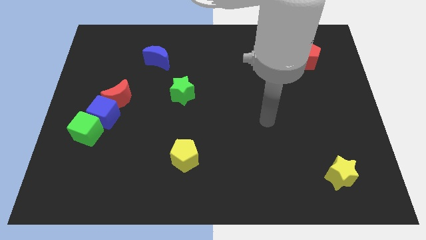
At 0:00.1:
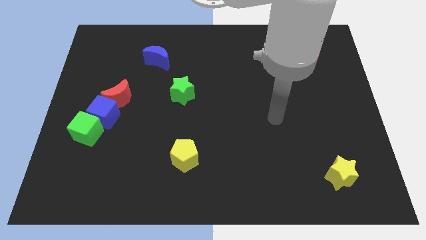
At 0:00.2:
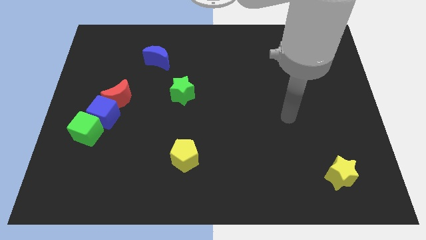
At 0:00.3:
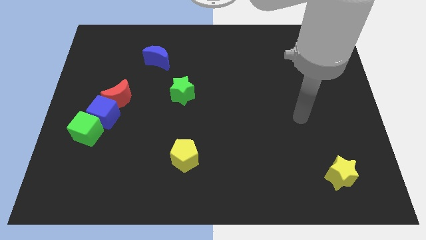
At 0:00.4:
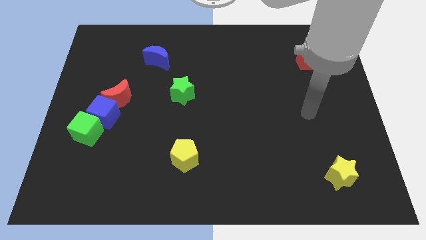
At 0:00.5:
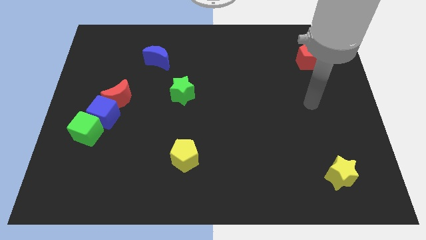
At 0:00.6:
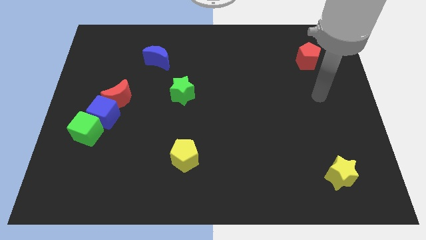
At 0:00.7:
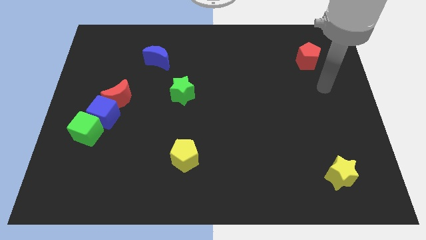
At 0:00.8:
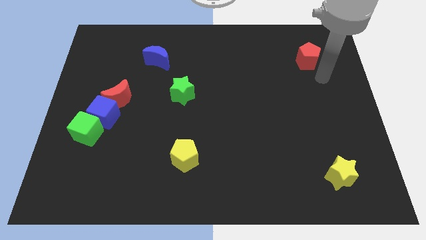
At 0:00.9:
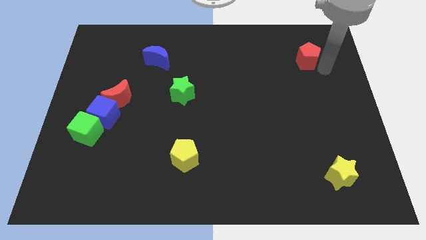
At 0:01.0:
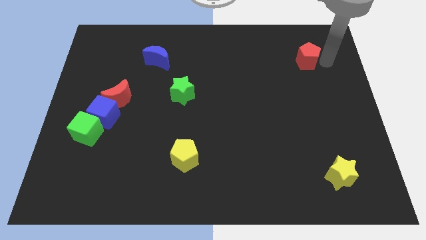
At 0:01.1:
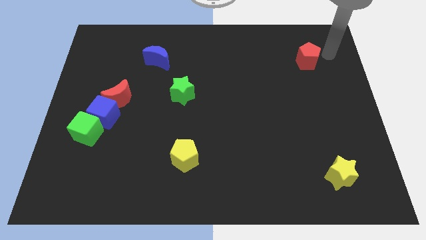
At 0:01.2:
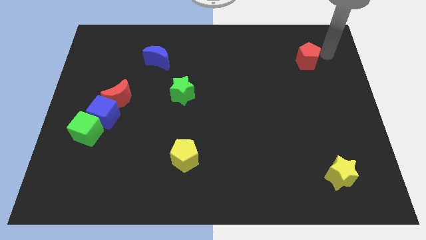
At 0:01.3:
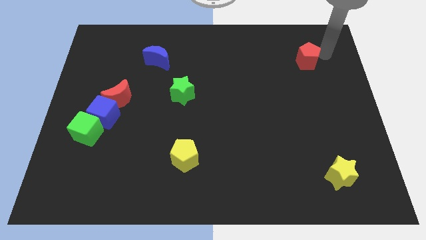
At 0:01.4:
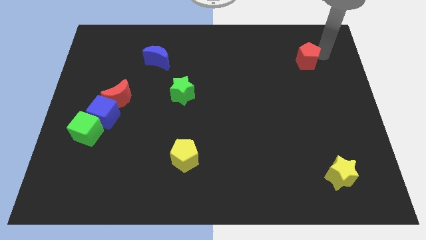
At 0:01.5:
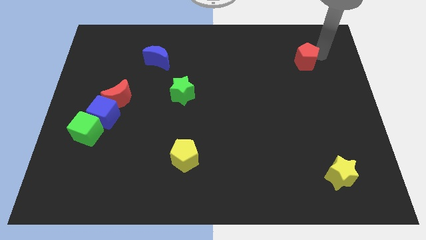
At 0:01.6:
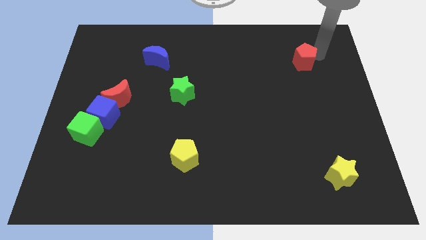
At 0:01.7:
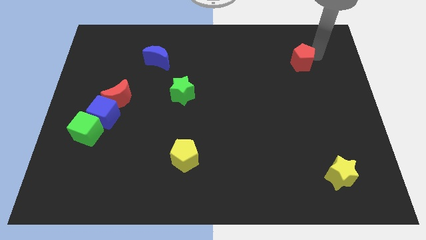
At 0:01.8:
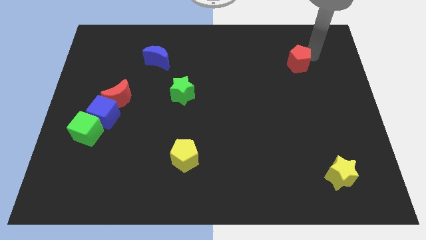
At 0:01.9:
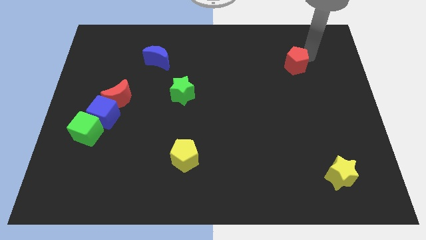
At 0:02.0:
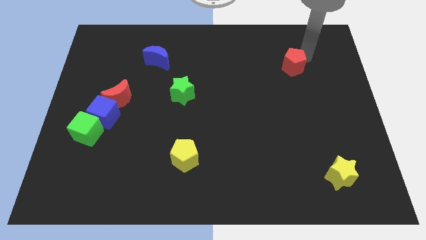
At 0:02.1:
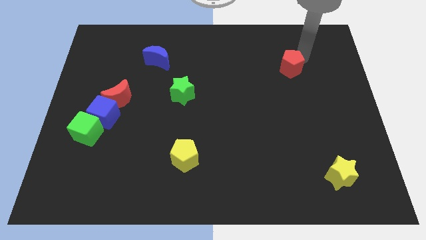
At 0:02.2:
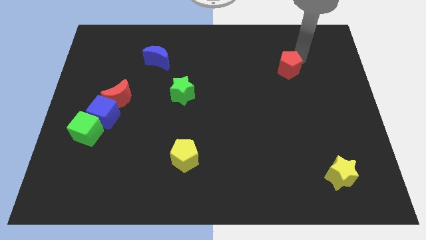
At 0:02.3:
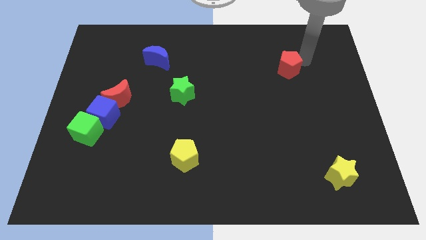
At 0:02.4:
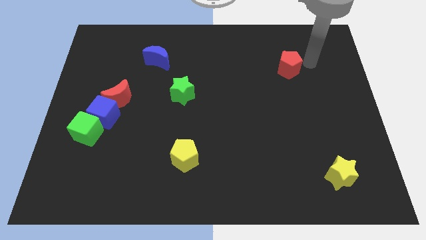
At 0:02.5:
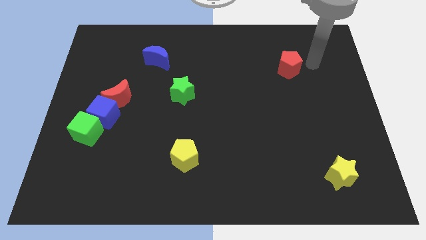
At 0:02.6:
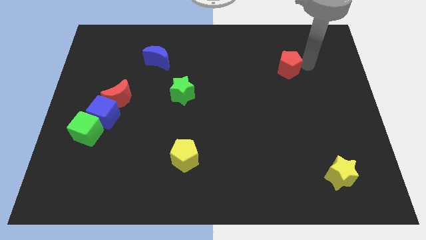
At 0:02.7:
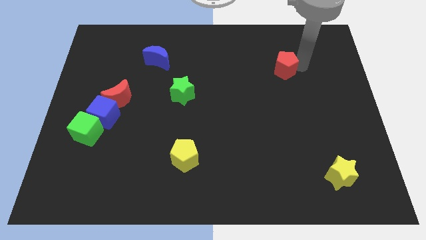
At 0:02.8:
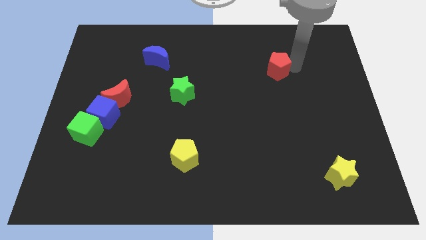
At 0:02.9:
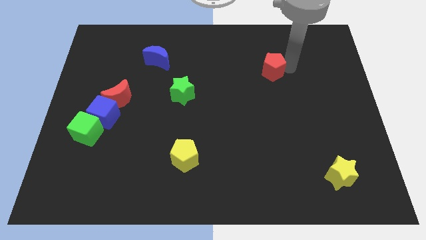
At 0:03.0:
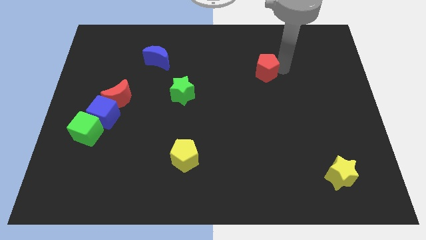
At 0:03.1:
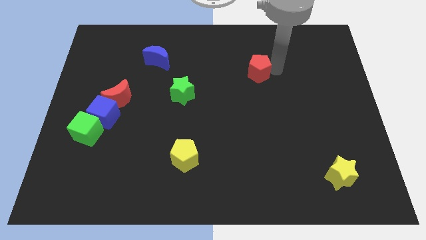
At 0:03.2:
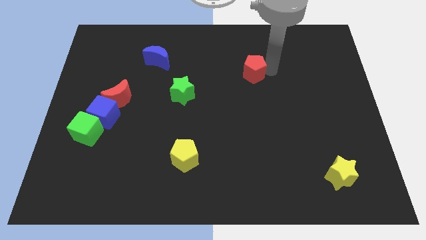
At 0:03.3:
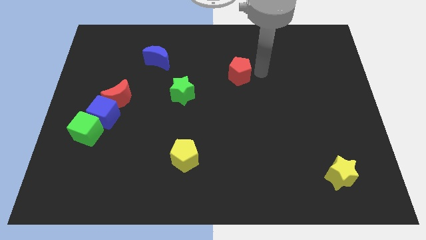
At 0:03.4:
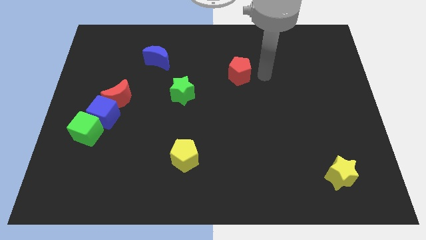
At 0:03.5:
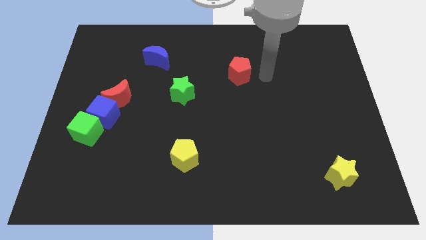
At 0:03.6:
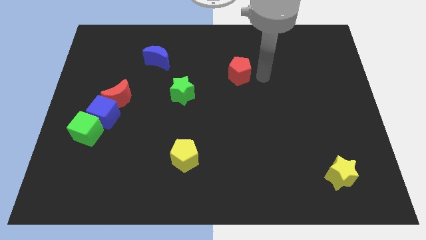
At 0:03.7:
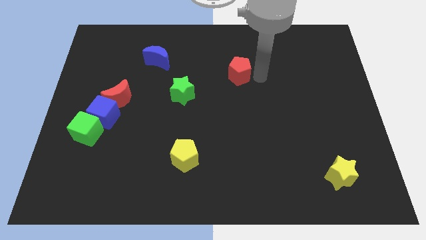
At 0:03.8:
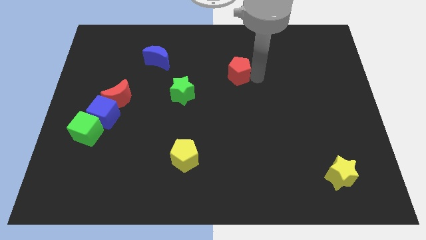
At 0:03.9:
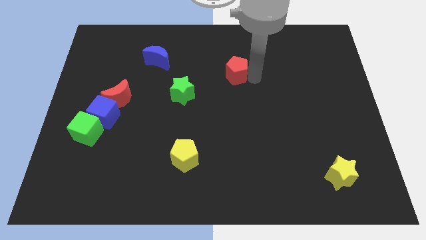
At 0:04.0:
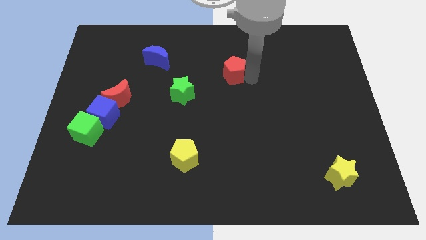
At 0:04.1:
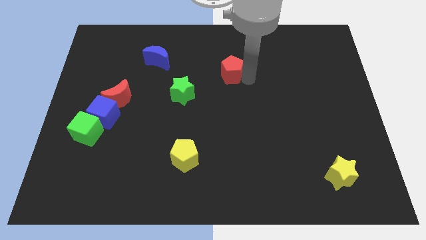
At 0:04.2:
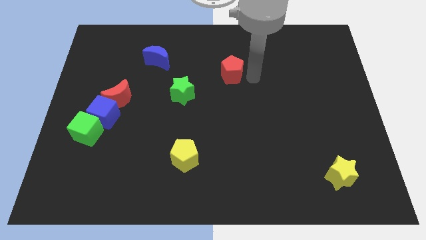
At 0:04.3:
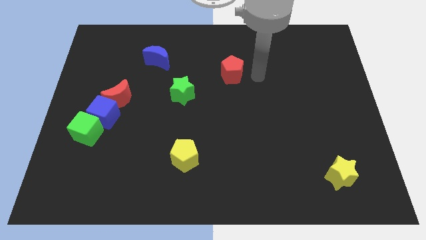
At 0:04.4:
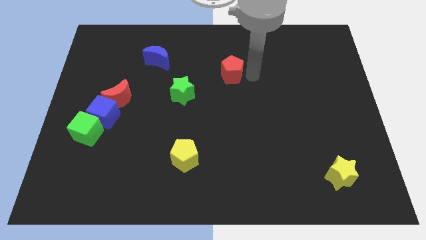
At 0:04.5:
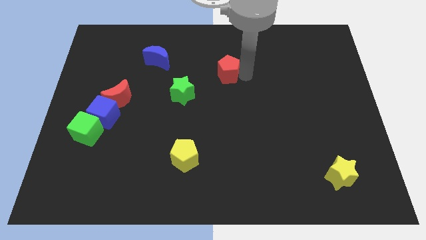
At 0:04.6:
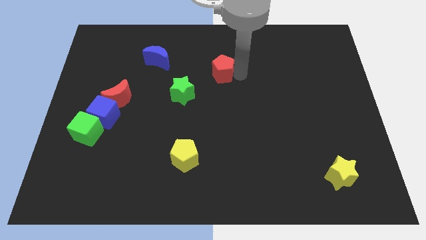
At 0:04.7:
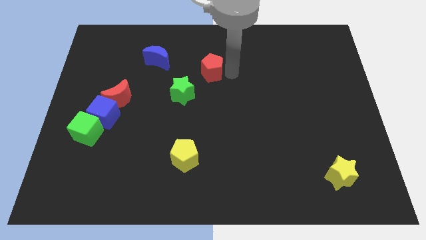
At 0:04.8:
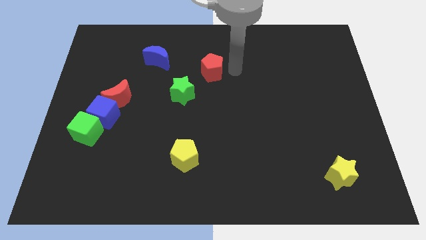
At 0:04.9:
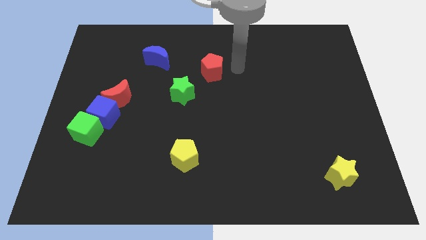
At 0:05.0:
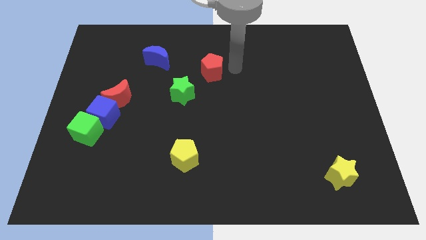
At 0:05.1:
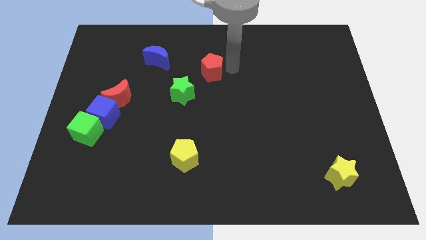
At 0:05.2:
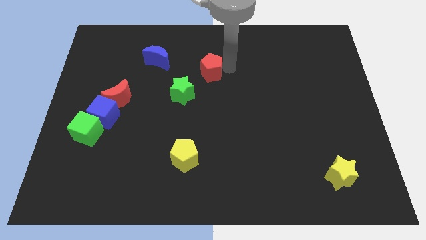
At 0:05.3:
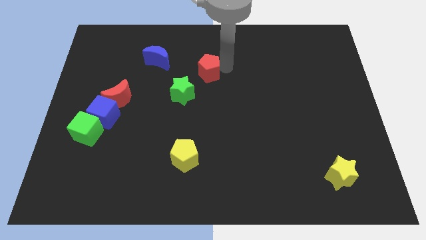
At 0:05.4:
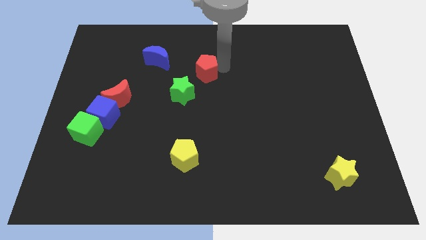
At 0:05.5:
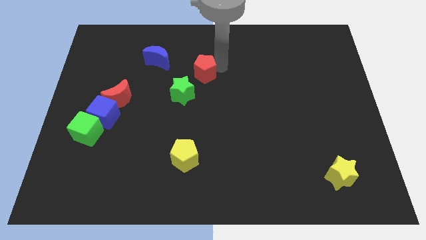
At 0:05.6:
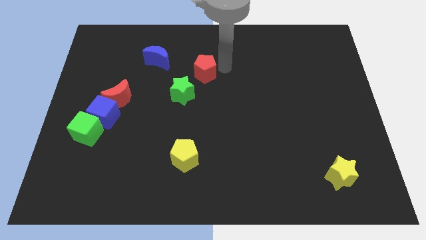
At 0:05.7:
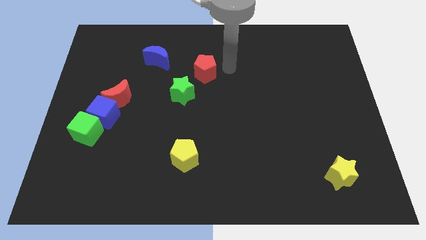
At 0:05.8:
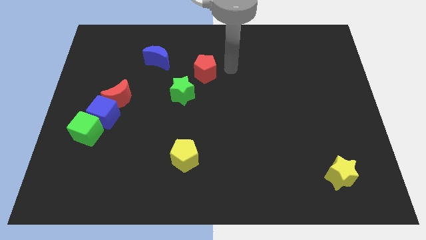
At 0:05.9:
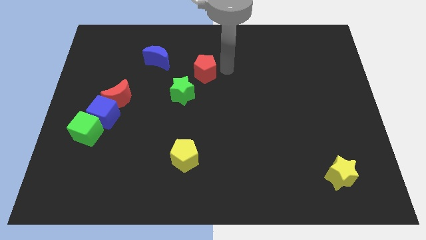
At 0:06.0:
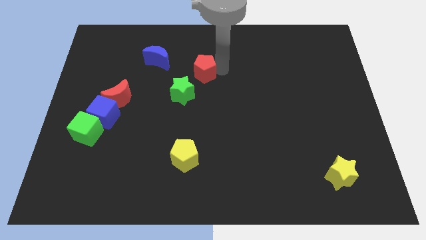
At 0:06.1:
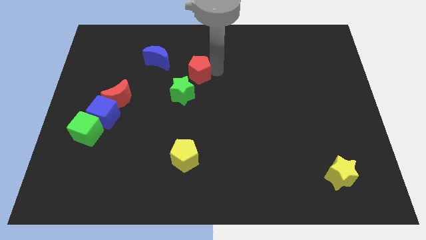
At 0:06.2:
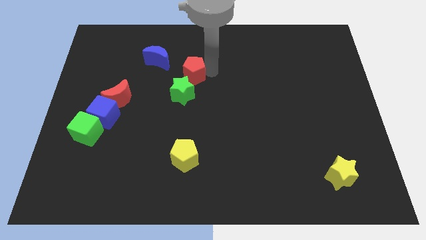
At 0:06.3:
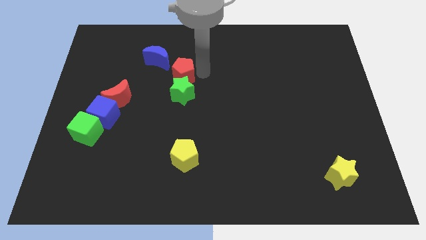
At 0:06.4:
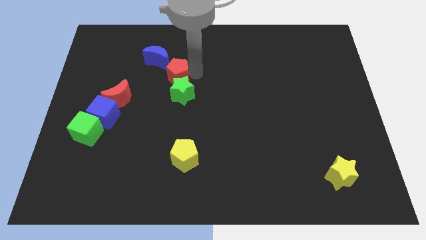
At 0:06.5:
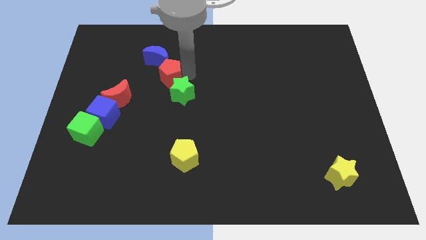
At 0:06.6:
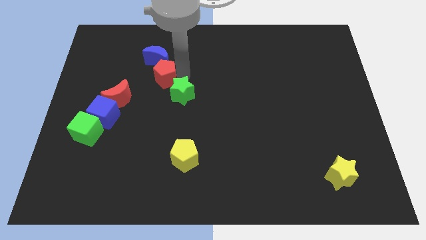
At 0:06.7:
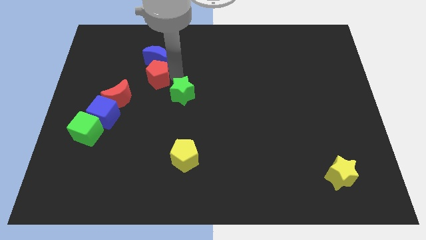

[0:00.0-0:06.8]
slide the red pentagon diagonally up and to the right of the red moon

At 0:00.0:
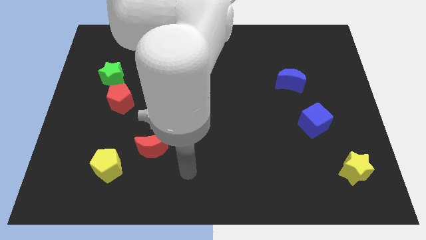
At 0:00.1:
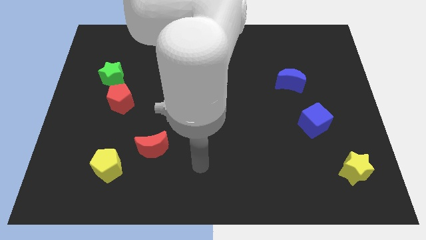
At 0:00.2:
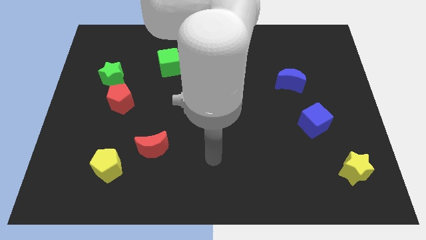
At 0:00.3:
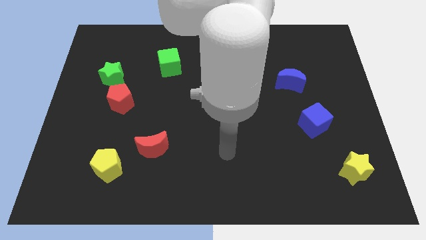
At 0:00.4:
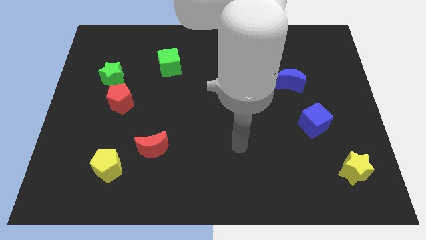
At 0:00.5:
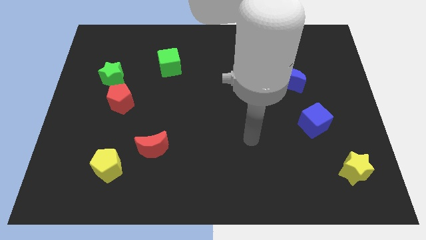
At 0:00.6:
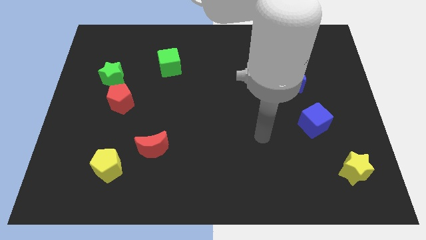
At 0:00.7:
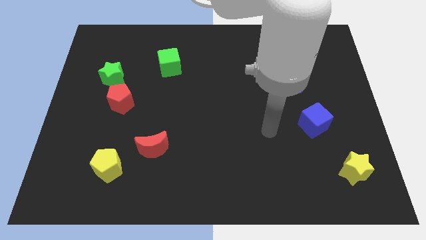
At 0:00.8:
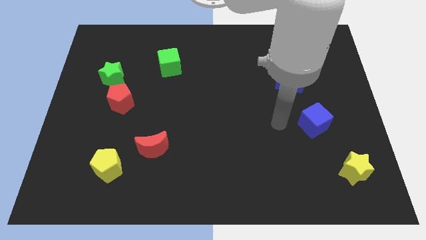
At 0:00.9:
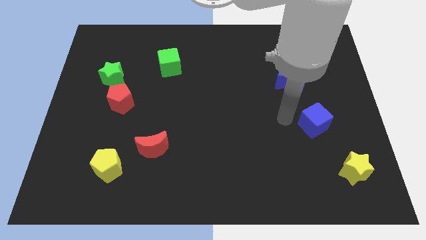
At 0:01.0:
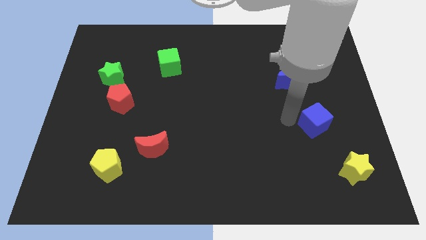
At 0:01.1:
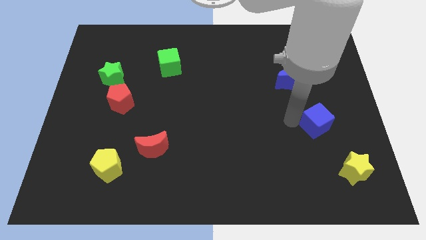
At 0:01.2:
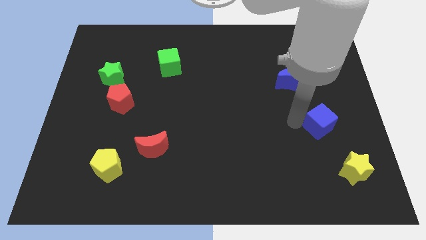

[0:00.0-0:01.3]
slide the blue cube to the top side of the yellow star
